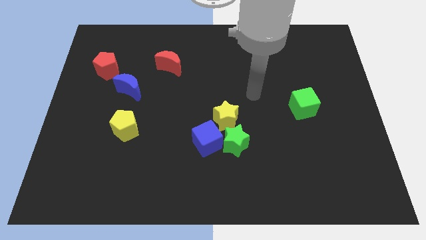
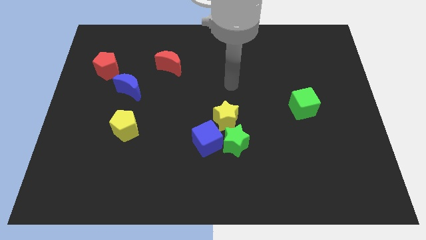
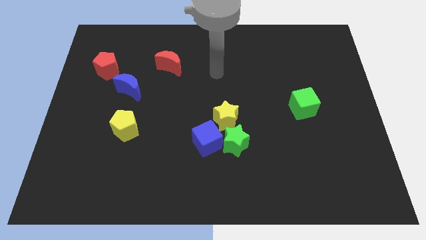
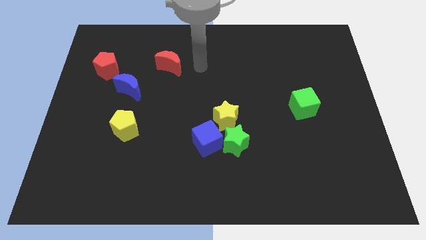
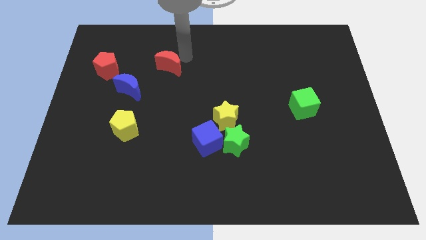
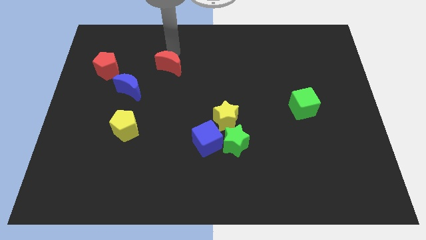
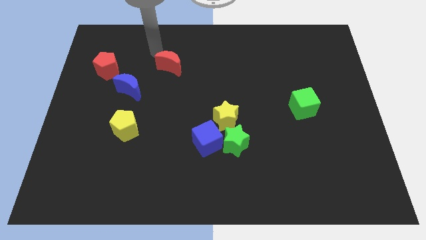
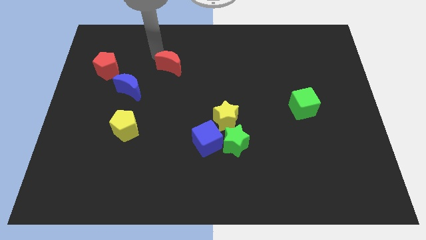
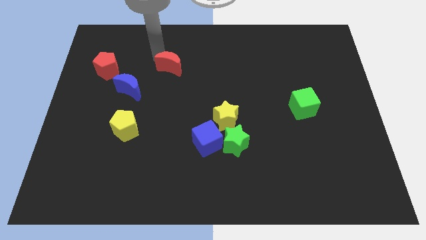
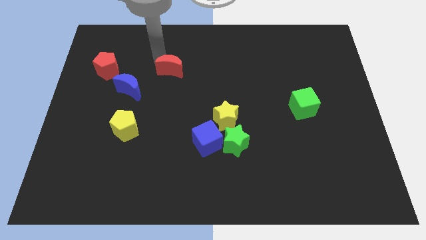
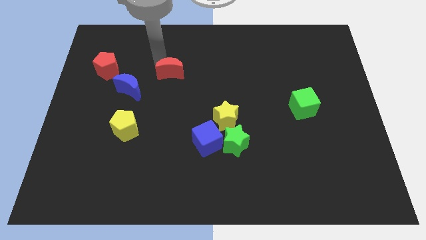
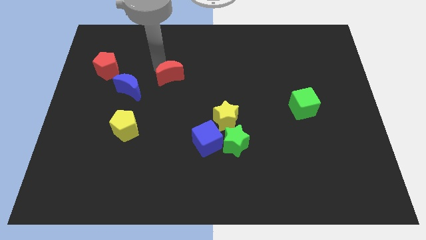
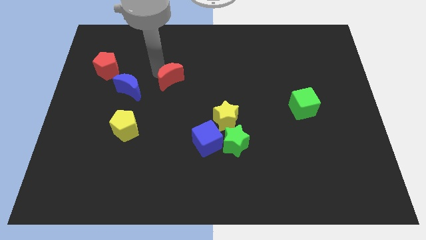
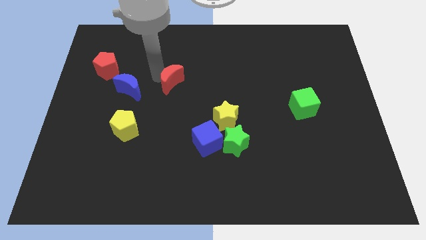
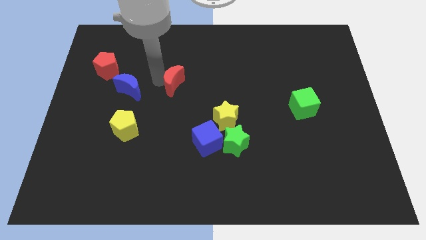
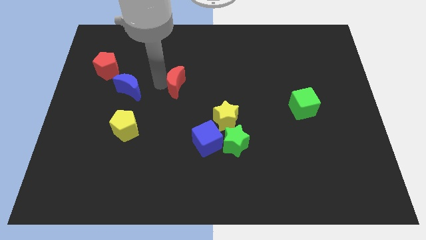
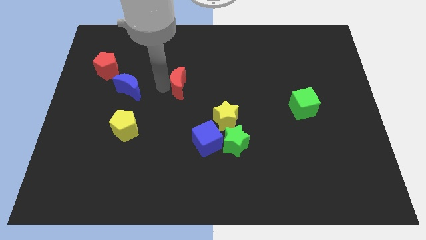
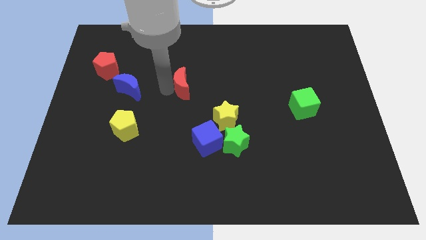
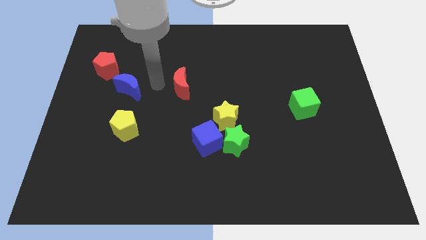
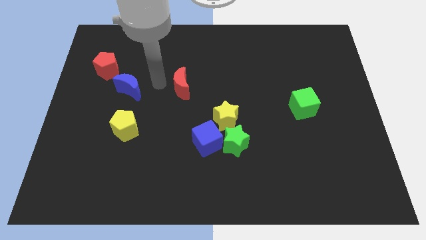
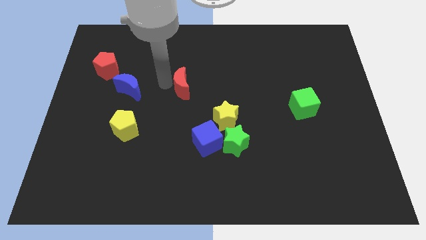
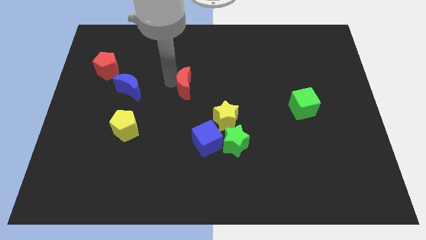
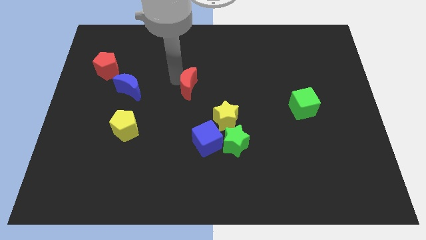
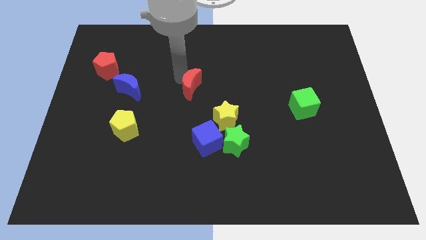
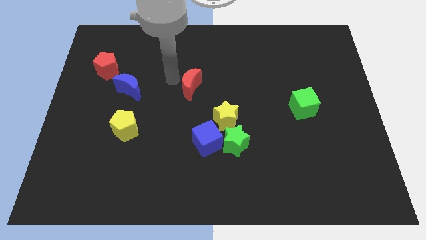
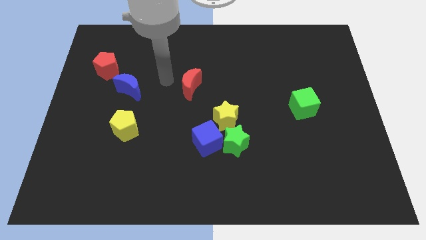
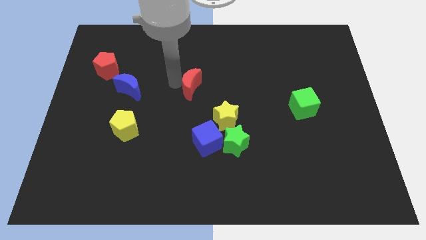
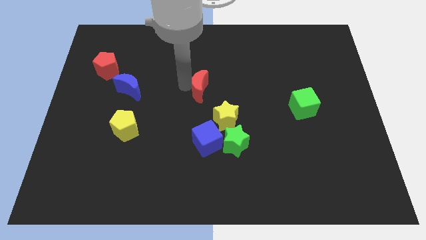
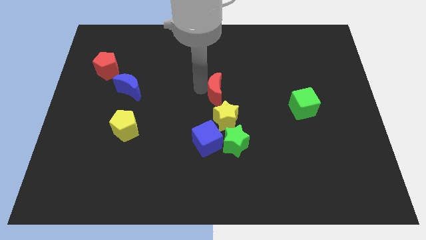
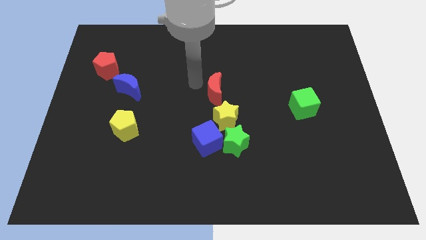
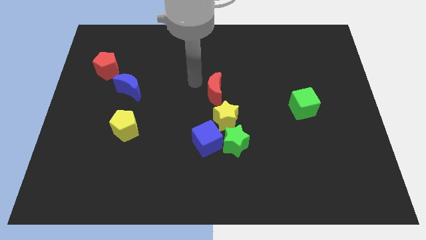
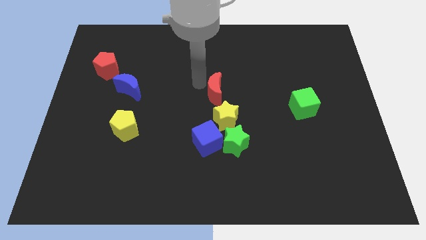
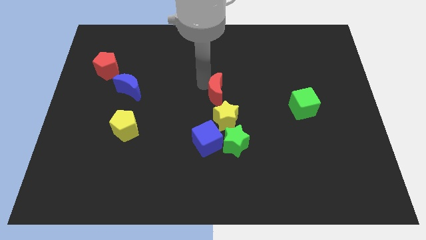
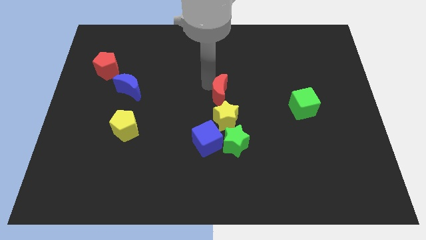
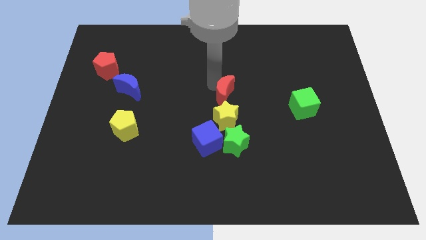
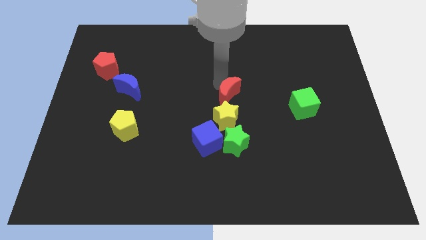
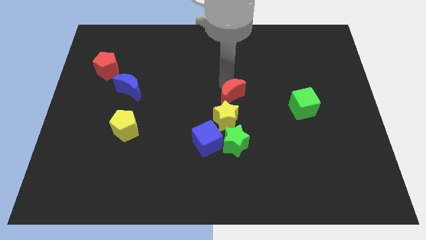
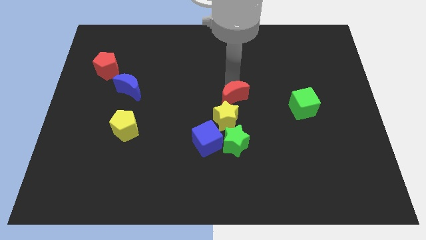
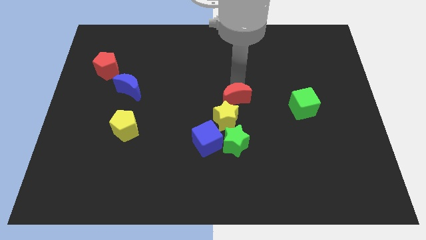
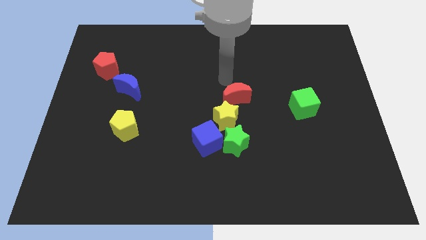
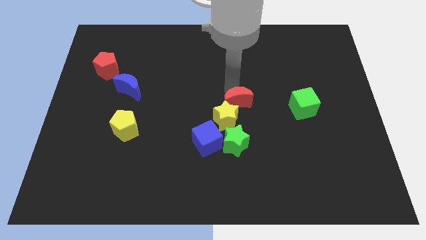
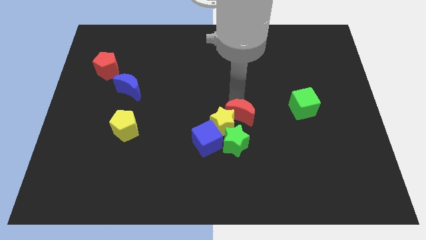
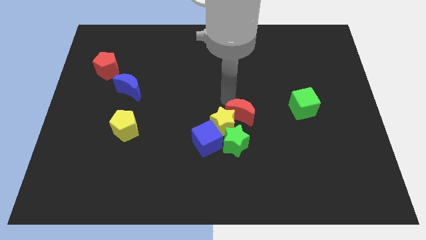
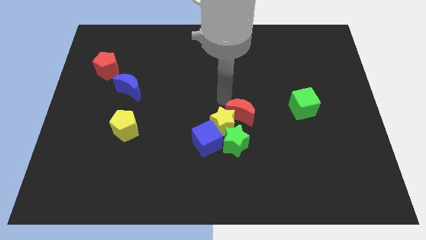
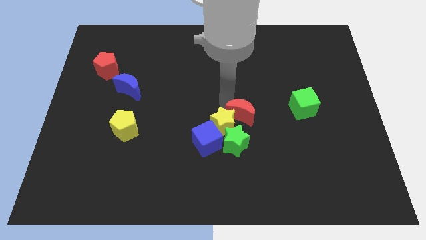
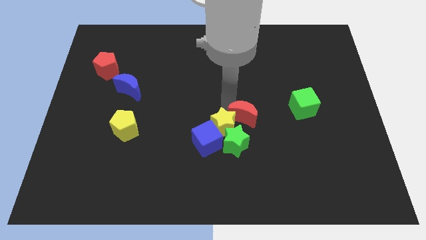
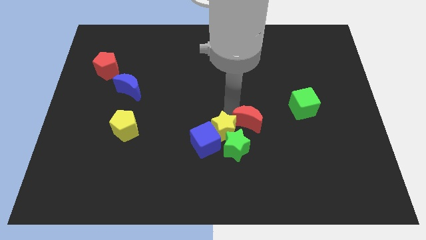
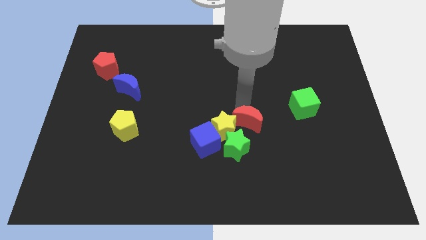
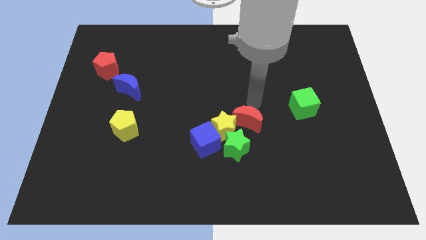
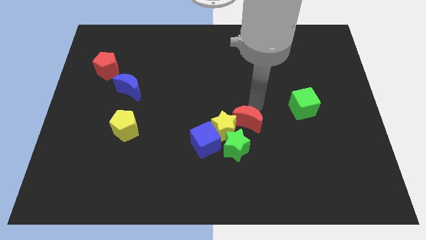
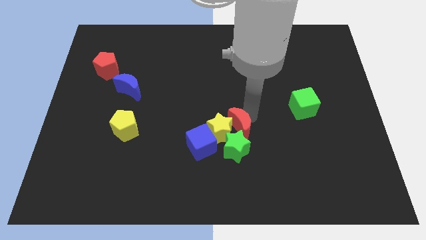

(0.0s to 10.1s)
slide the red moon towards the green star

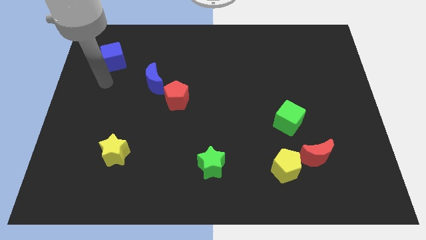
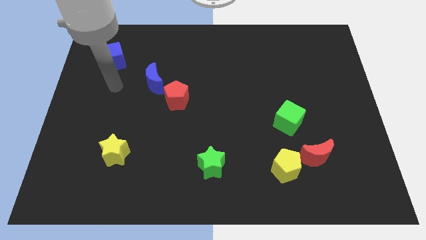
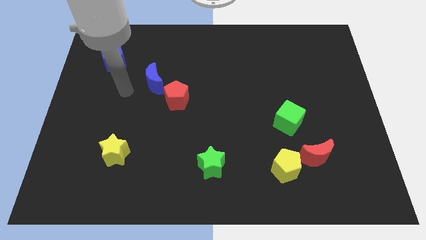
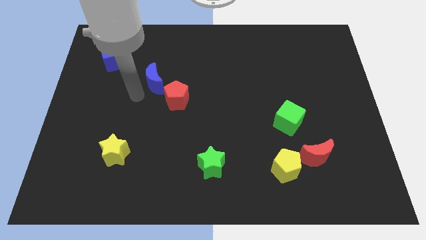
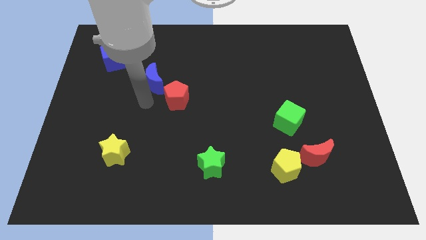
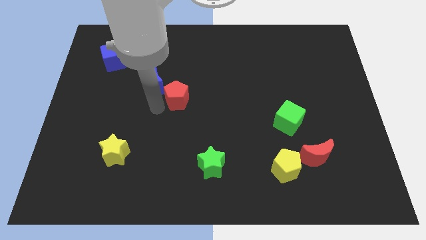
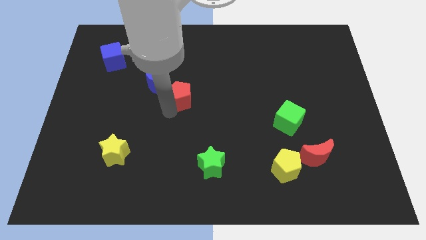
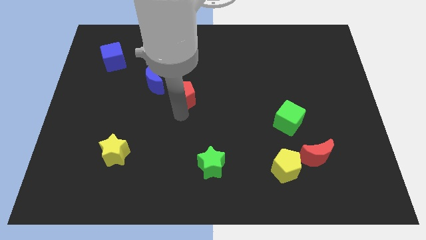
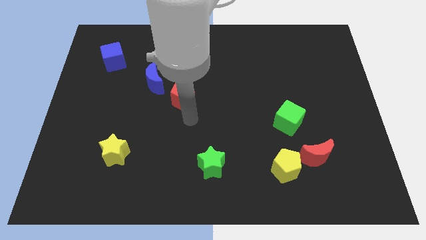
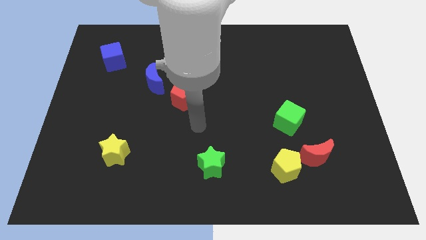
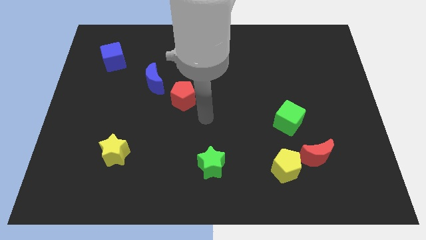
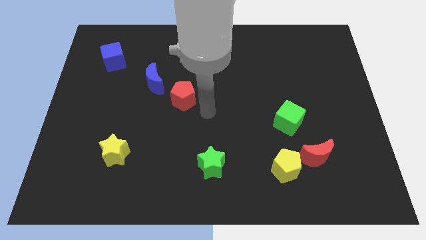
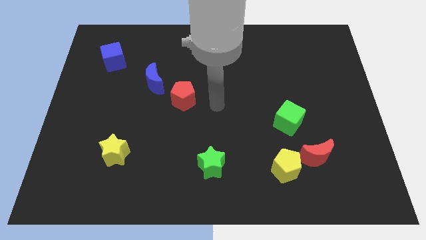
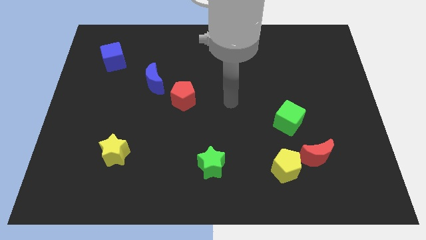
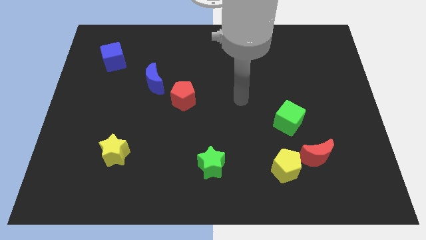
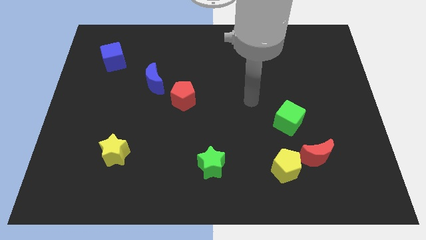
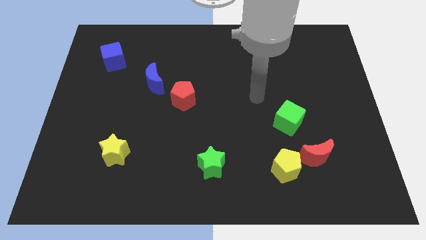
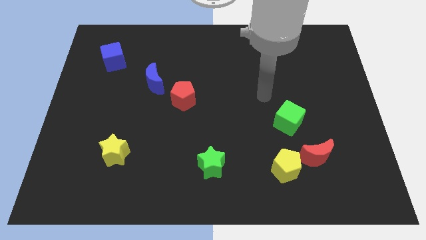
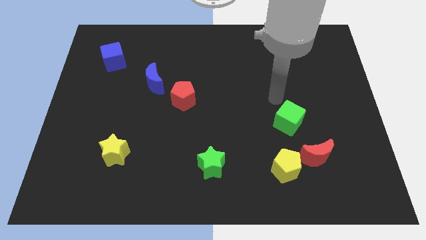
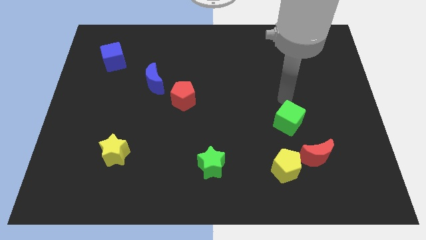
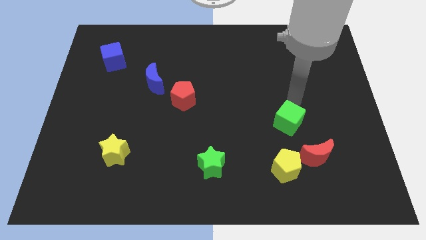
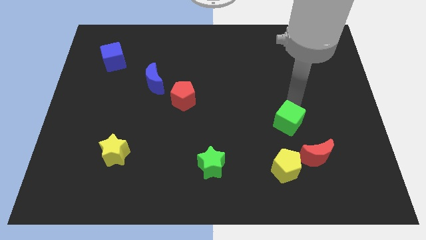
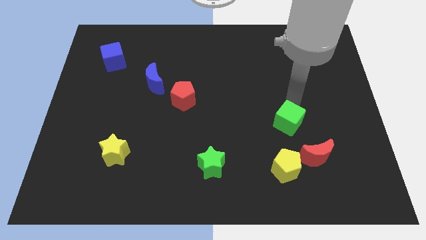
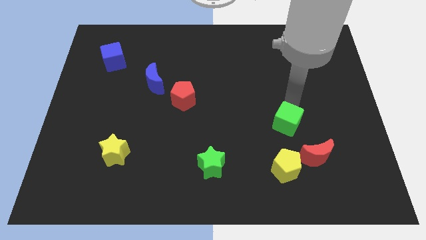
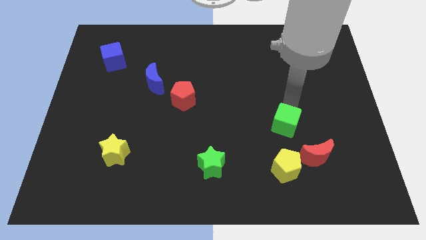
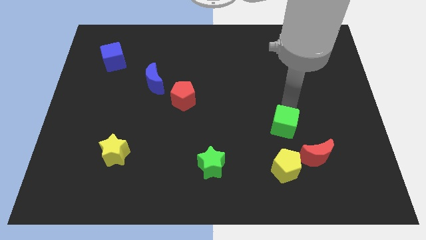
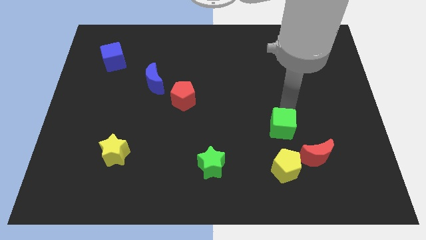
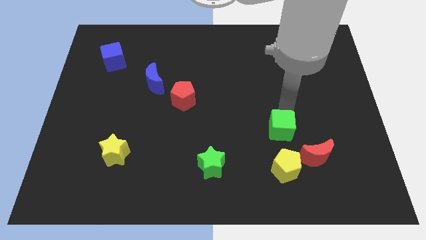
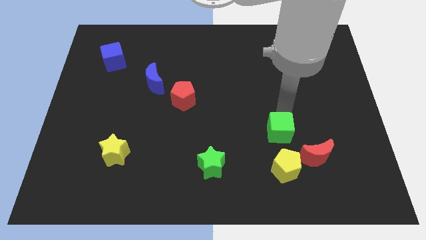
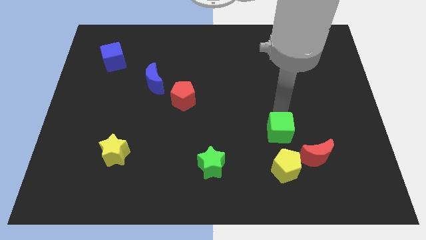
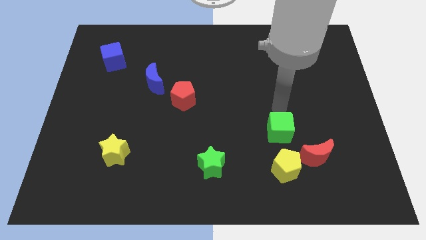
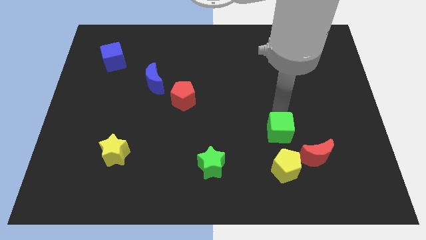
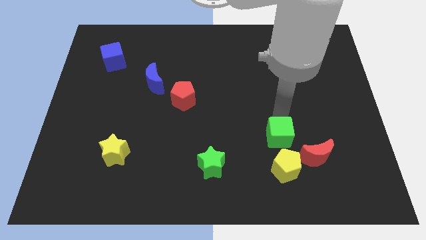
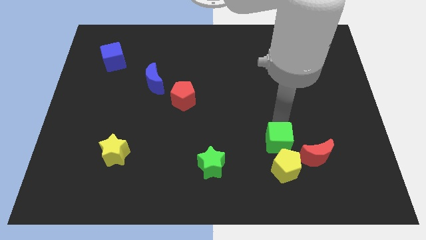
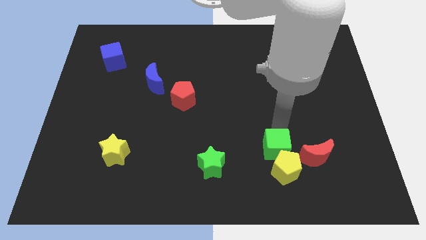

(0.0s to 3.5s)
put the green cube next to the yellow pentagon
